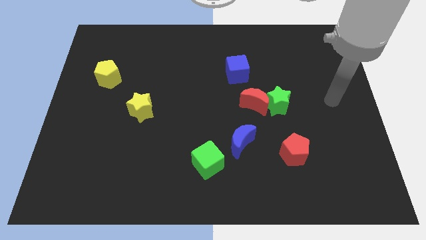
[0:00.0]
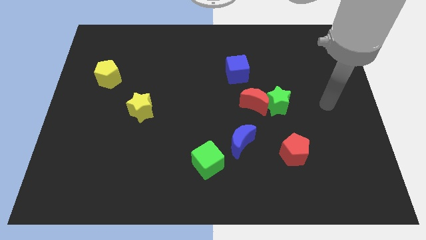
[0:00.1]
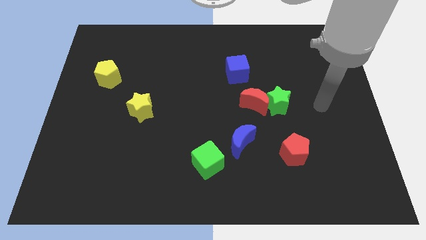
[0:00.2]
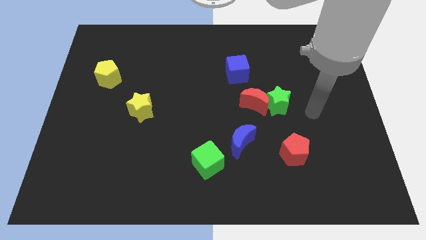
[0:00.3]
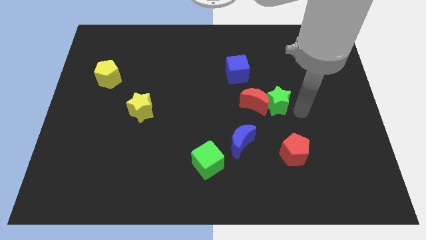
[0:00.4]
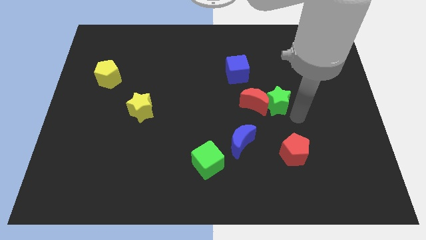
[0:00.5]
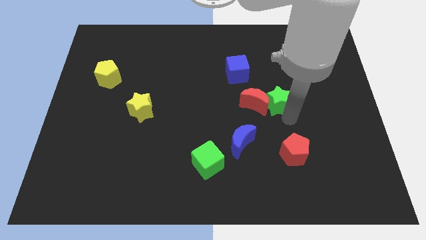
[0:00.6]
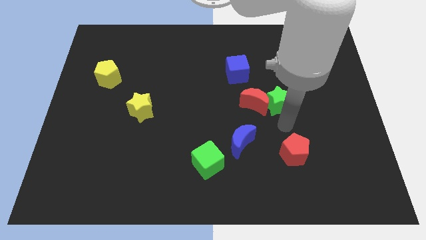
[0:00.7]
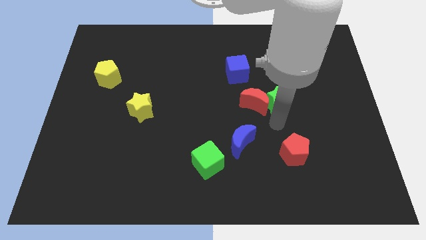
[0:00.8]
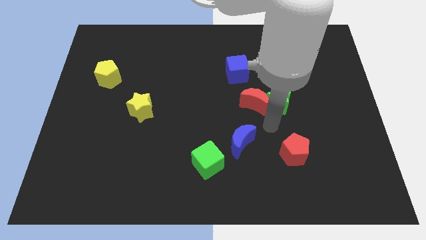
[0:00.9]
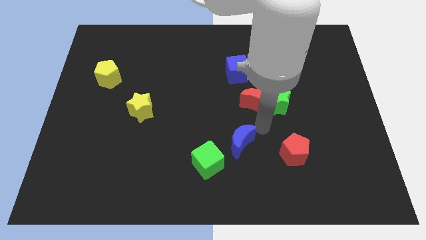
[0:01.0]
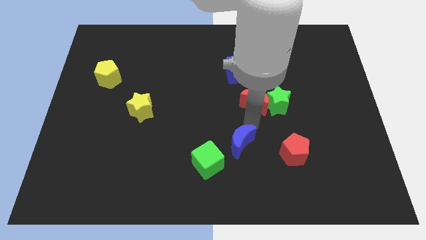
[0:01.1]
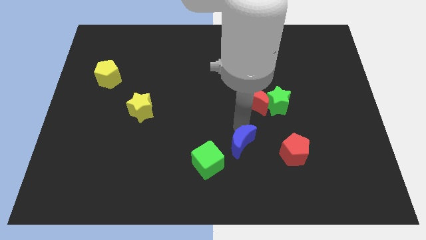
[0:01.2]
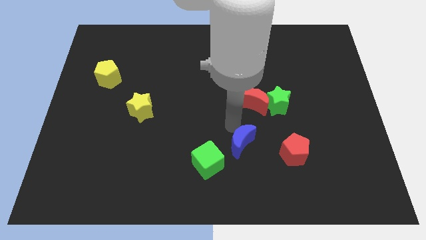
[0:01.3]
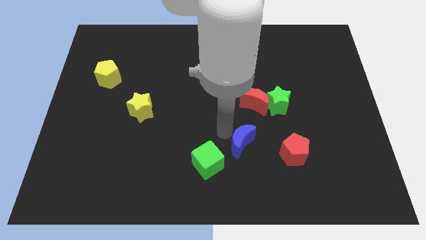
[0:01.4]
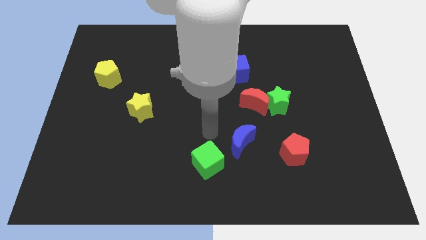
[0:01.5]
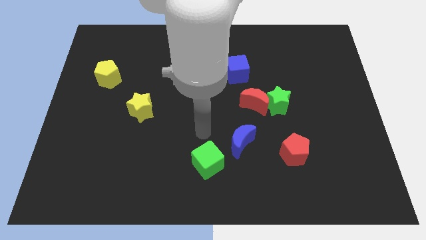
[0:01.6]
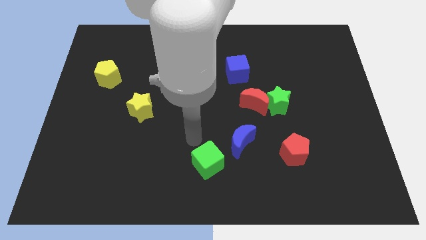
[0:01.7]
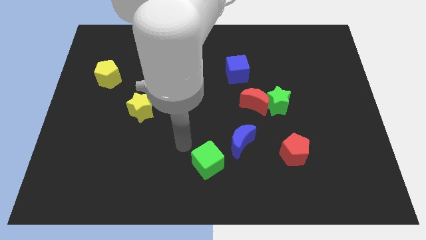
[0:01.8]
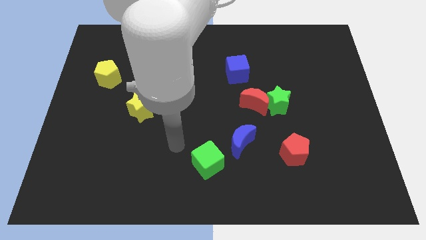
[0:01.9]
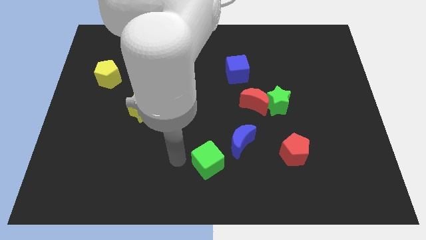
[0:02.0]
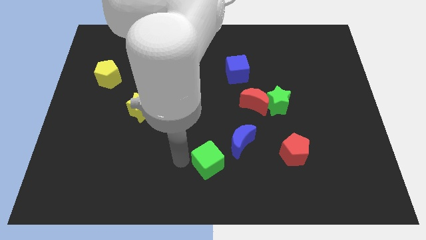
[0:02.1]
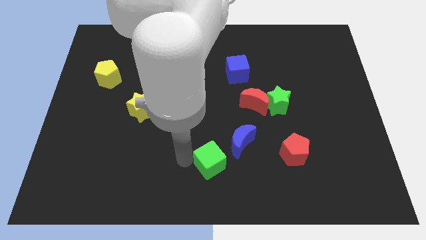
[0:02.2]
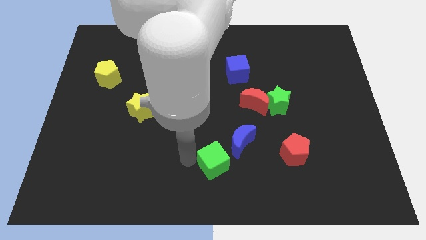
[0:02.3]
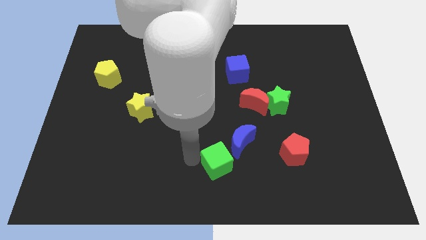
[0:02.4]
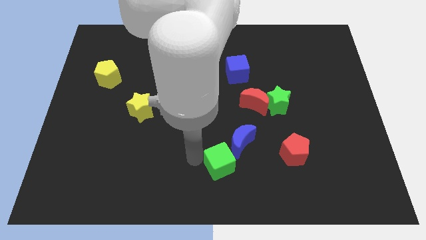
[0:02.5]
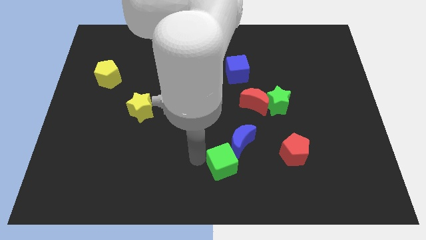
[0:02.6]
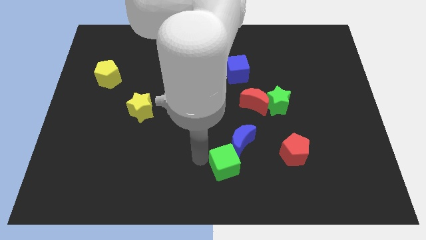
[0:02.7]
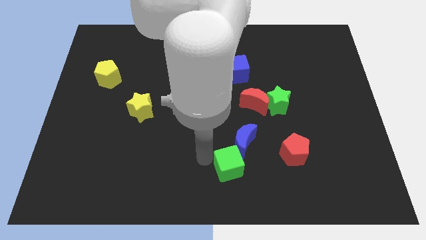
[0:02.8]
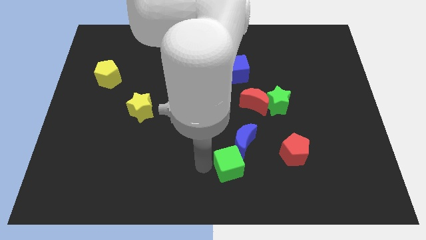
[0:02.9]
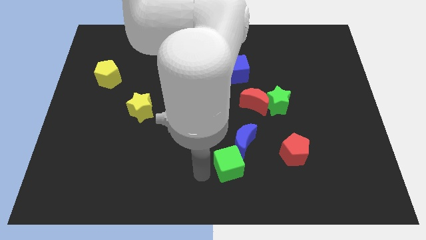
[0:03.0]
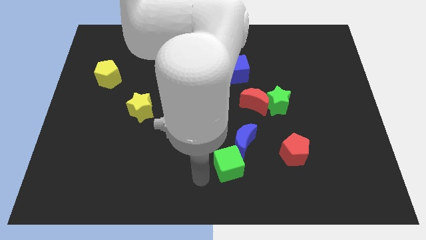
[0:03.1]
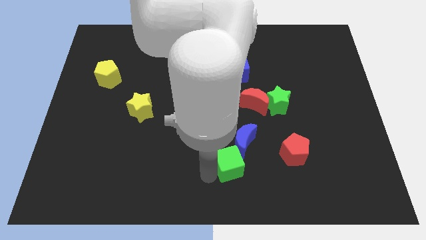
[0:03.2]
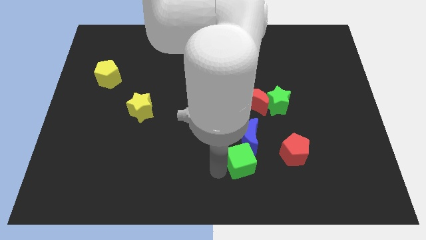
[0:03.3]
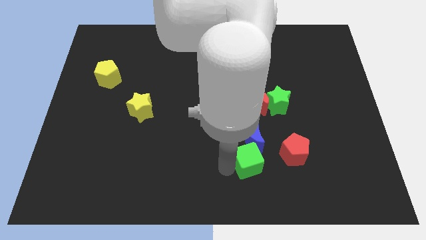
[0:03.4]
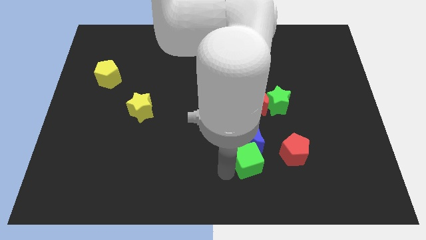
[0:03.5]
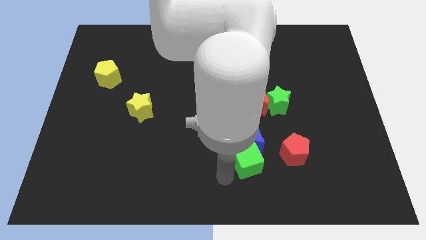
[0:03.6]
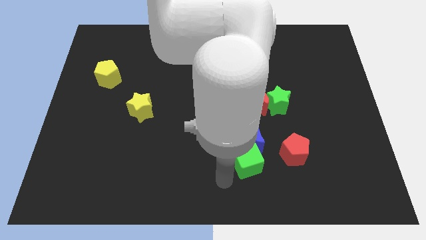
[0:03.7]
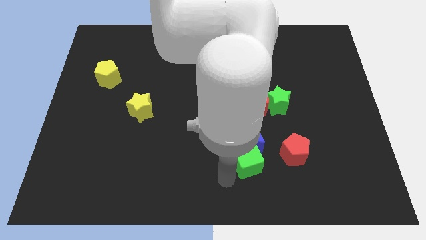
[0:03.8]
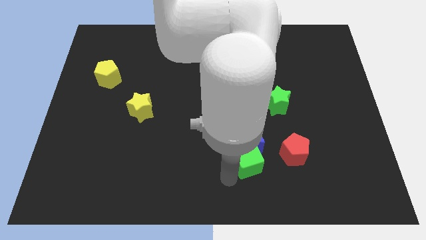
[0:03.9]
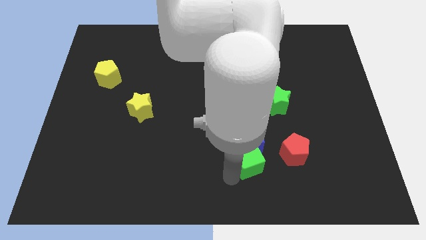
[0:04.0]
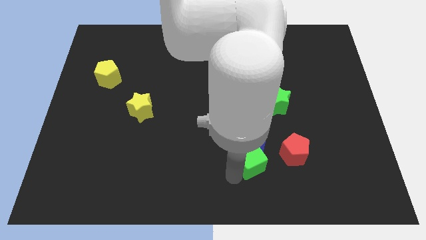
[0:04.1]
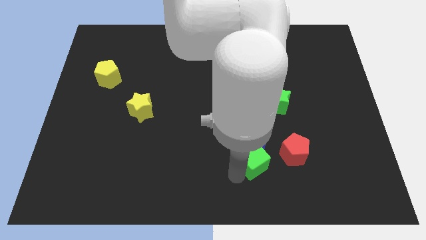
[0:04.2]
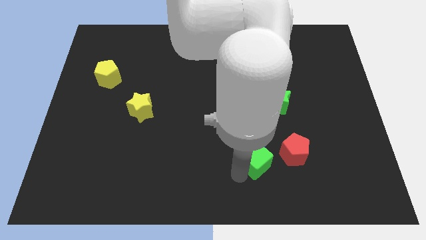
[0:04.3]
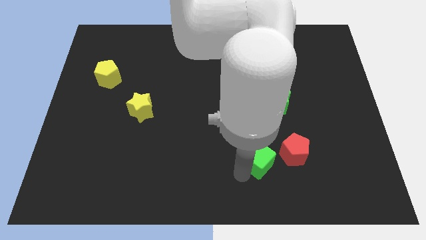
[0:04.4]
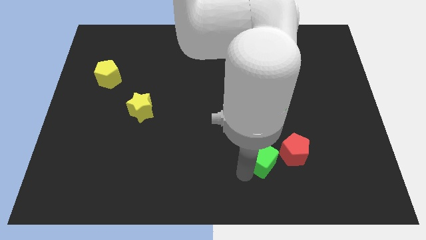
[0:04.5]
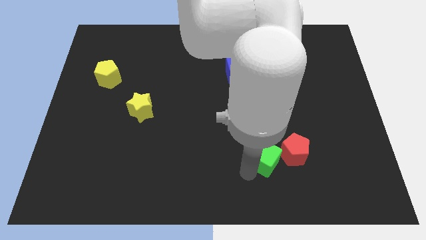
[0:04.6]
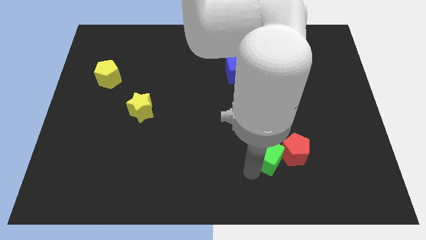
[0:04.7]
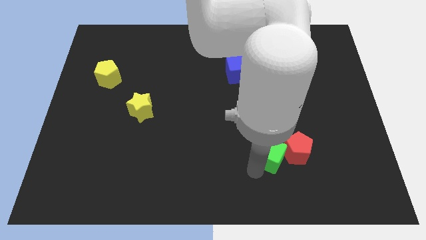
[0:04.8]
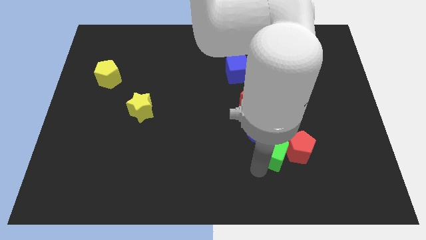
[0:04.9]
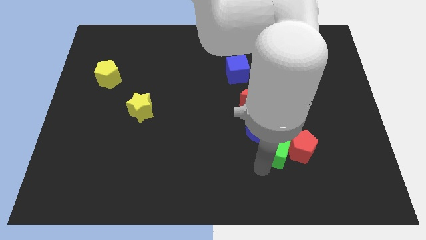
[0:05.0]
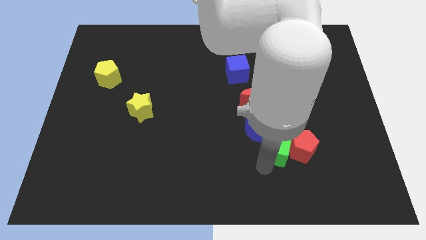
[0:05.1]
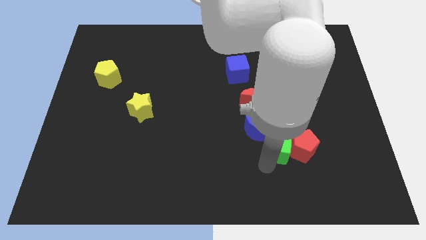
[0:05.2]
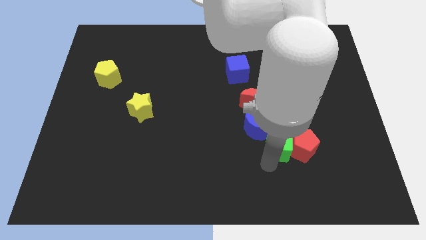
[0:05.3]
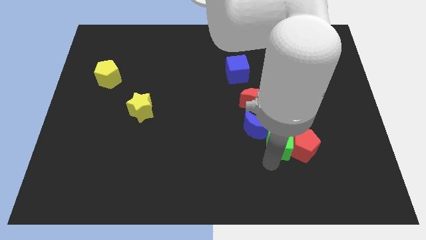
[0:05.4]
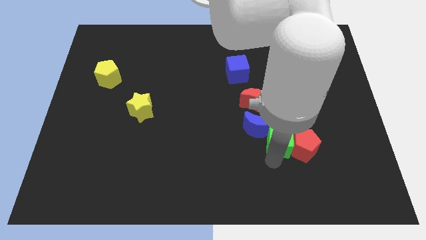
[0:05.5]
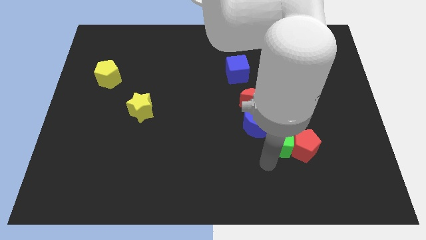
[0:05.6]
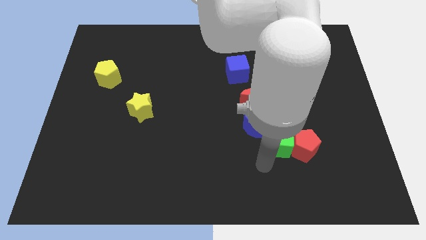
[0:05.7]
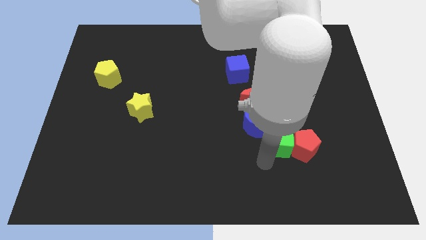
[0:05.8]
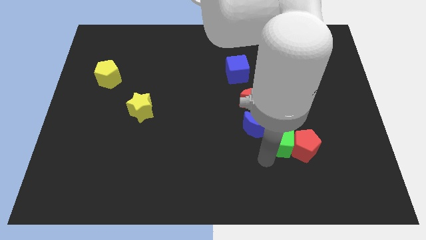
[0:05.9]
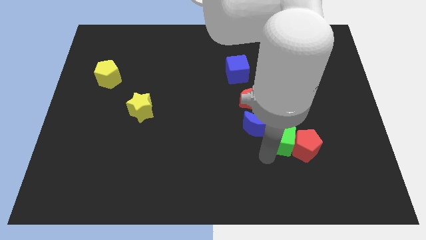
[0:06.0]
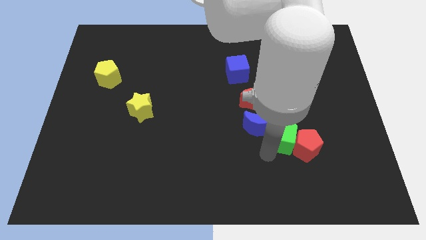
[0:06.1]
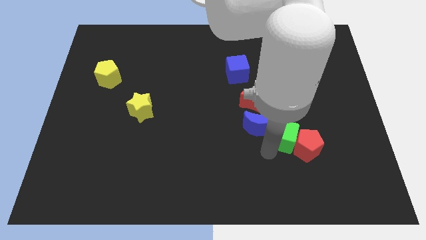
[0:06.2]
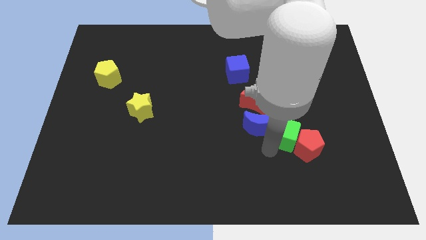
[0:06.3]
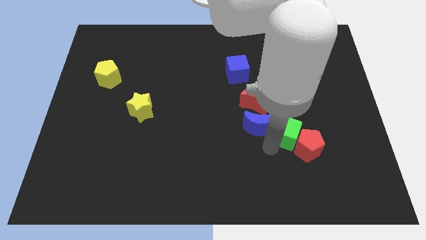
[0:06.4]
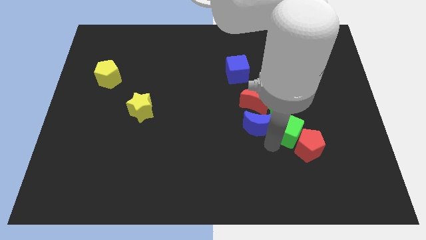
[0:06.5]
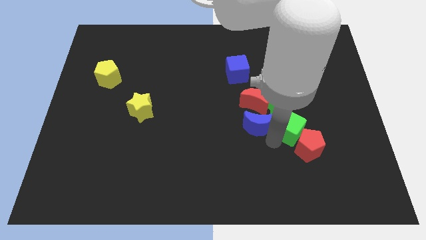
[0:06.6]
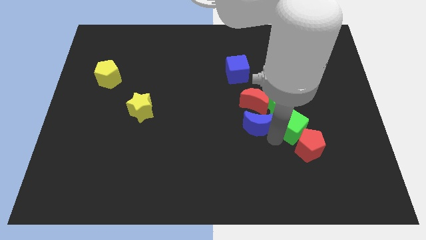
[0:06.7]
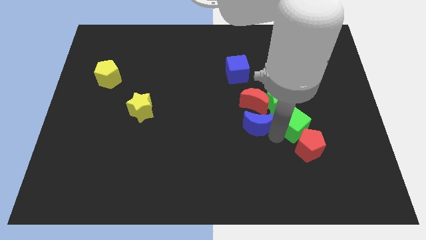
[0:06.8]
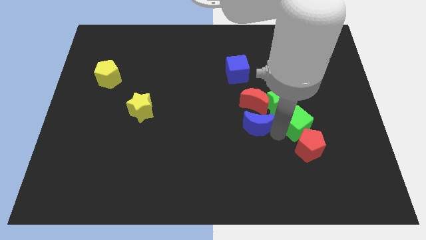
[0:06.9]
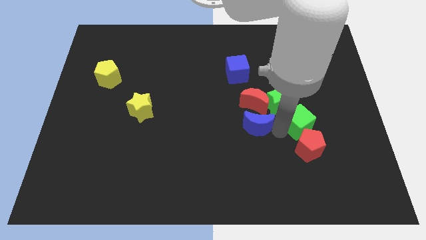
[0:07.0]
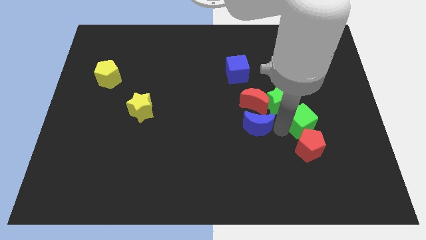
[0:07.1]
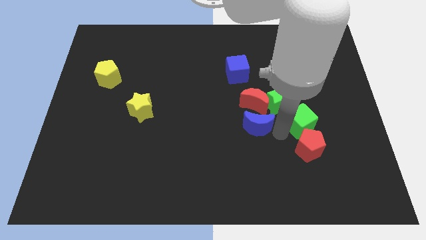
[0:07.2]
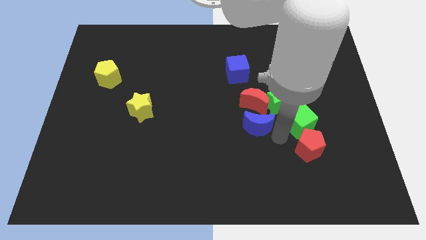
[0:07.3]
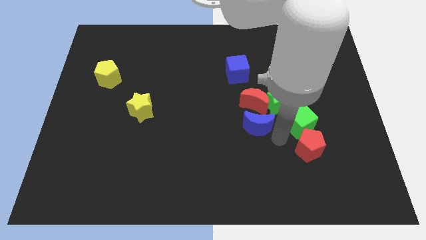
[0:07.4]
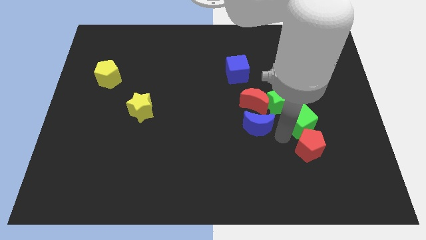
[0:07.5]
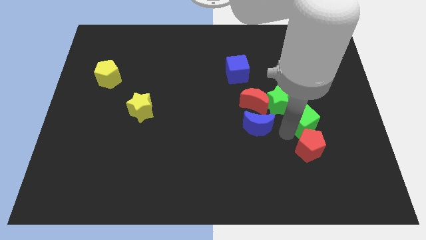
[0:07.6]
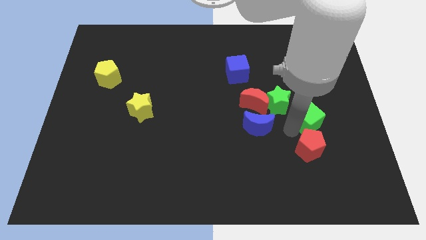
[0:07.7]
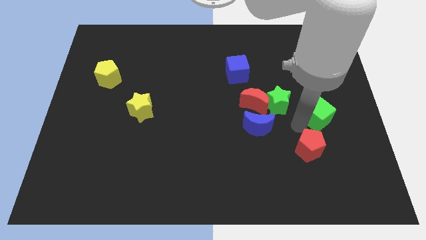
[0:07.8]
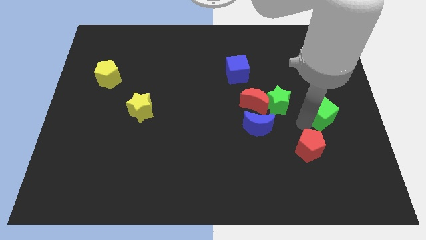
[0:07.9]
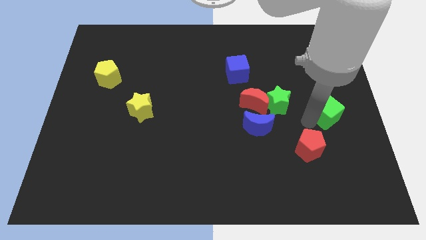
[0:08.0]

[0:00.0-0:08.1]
push the green cube to the center right
